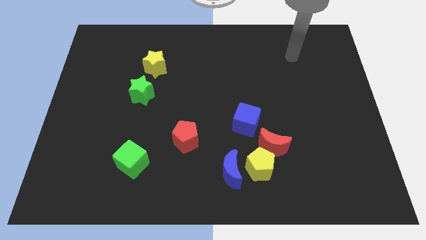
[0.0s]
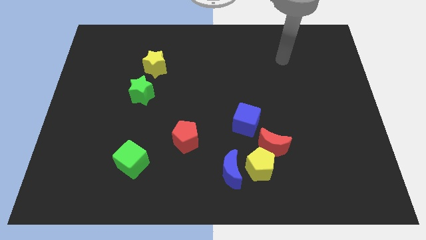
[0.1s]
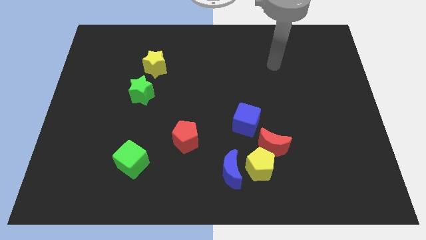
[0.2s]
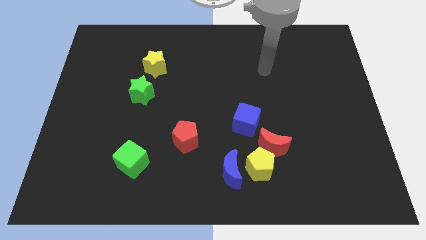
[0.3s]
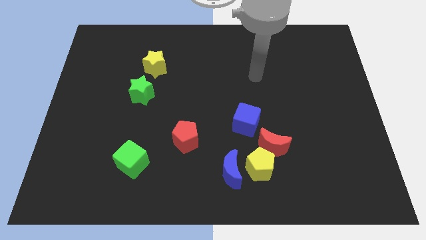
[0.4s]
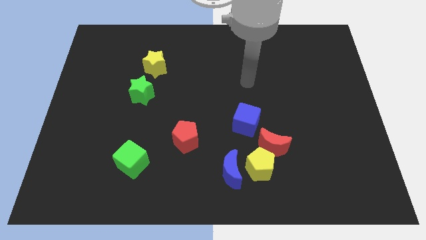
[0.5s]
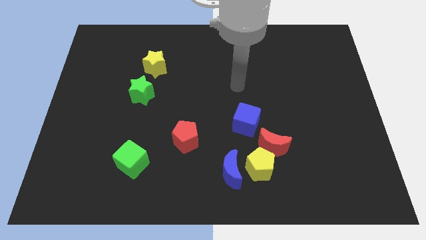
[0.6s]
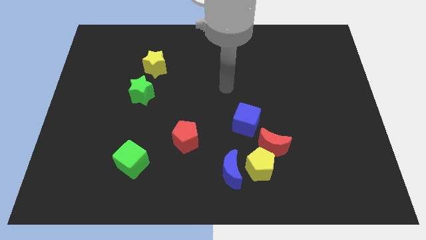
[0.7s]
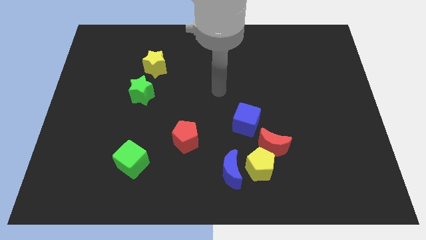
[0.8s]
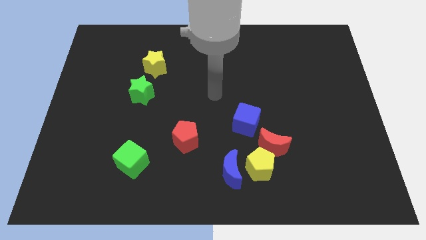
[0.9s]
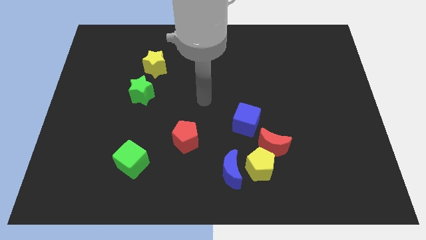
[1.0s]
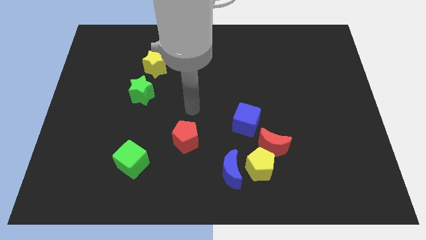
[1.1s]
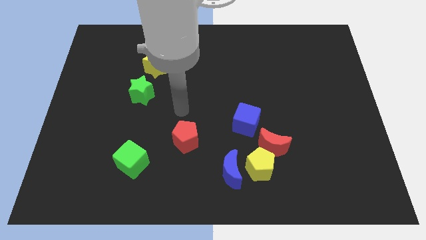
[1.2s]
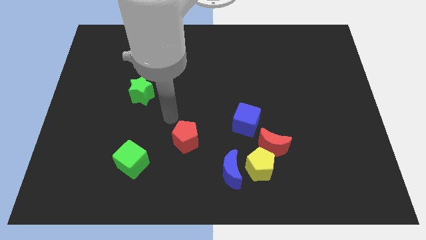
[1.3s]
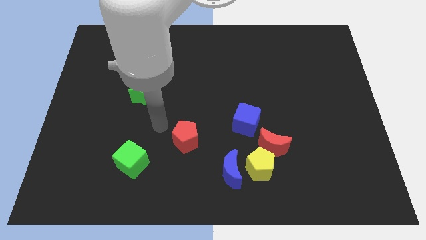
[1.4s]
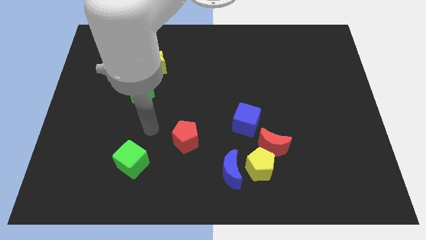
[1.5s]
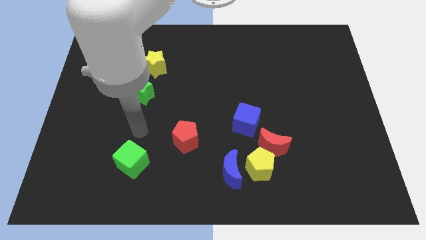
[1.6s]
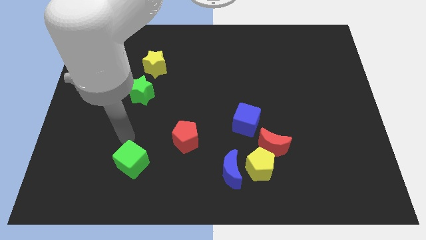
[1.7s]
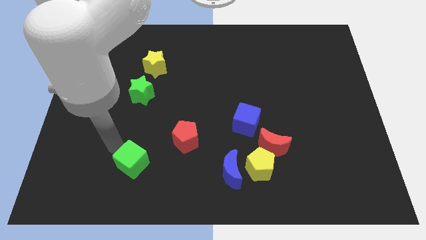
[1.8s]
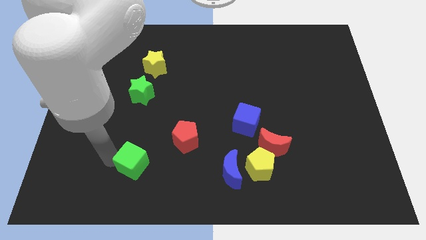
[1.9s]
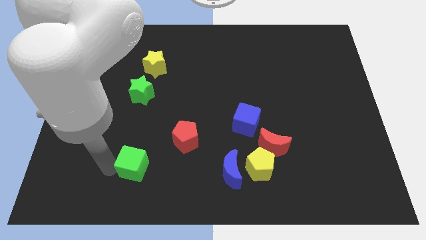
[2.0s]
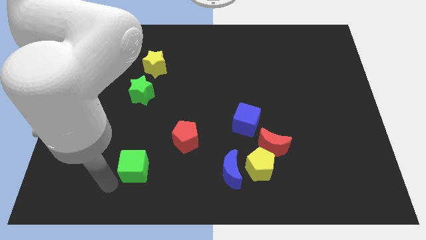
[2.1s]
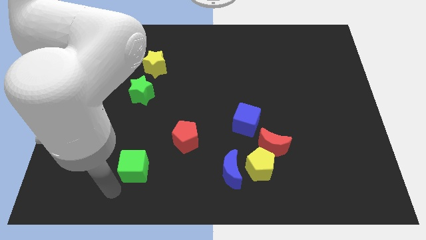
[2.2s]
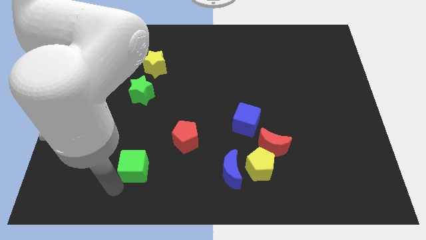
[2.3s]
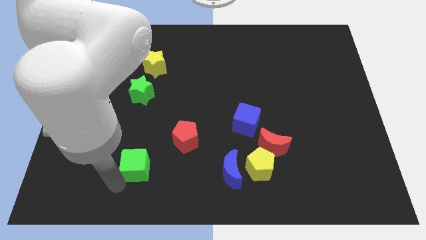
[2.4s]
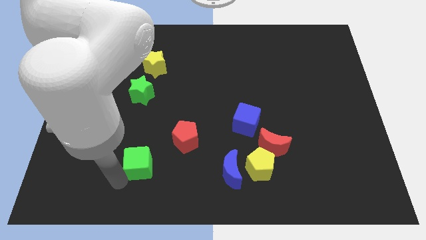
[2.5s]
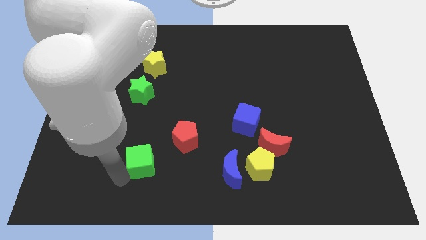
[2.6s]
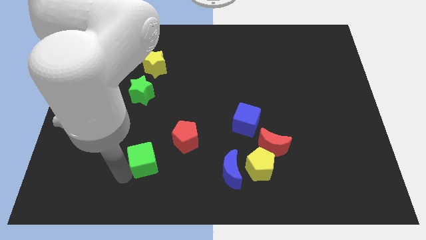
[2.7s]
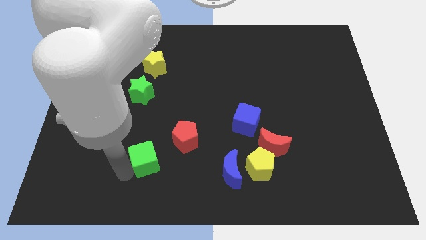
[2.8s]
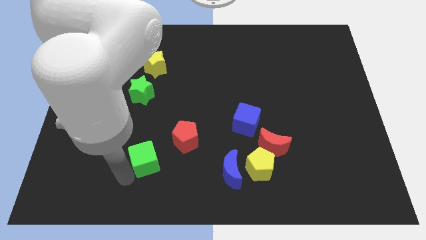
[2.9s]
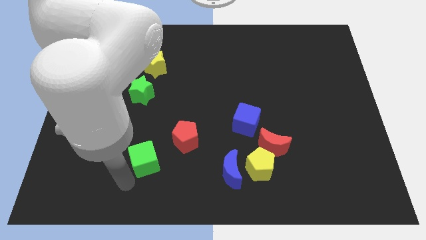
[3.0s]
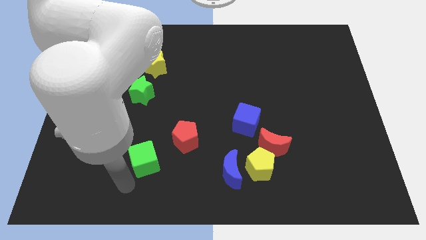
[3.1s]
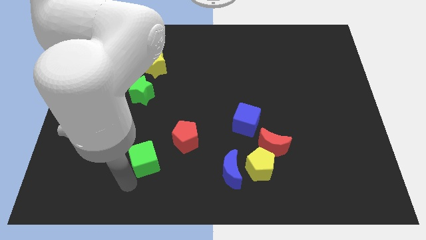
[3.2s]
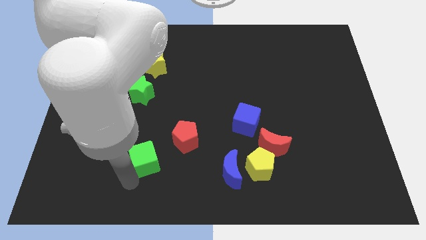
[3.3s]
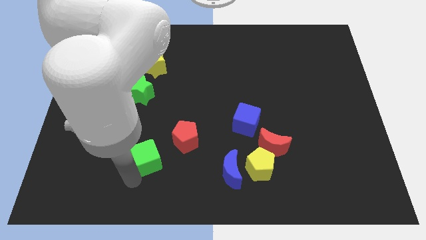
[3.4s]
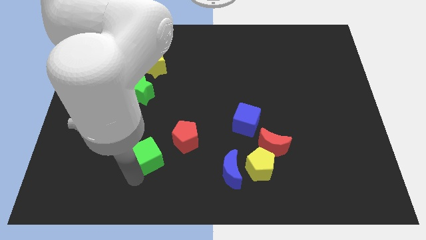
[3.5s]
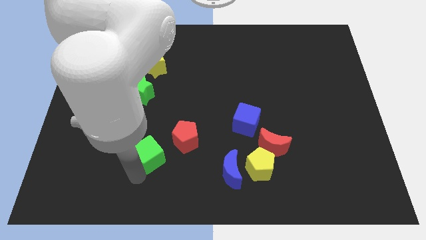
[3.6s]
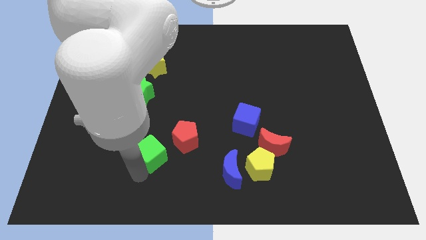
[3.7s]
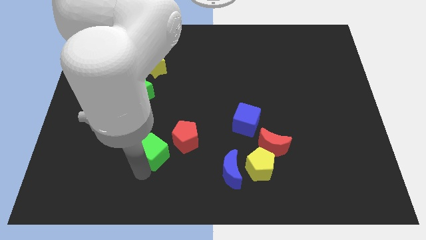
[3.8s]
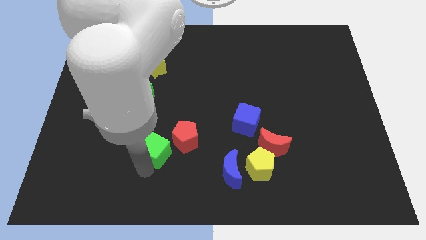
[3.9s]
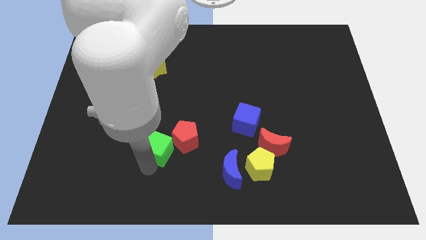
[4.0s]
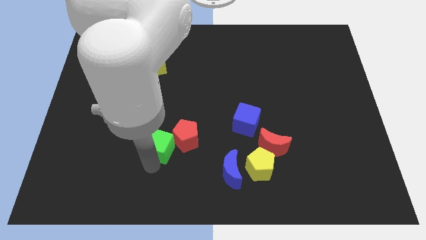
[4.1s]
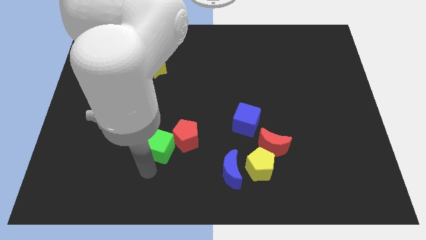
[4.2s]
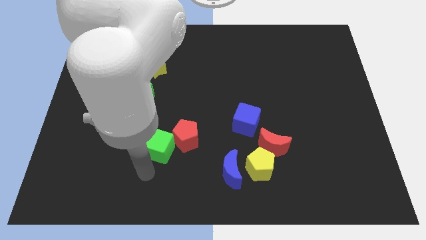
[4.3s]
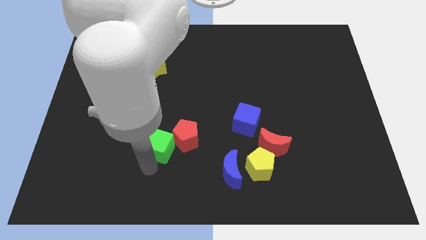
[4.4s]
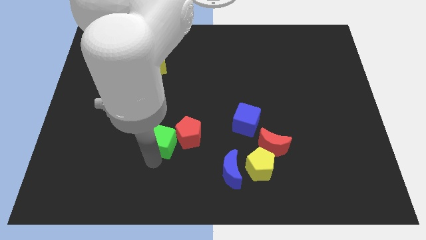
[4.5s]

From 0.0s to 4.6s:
slide the green cube somewhat diagonally upwards and to the right

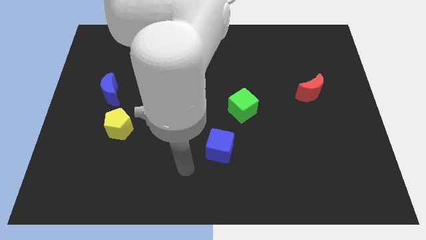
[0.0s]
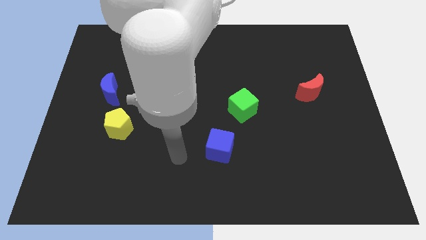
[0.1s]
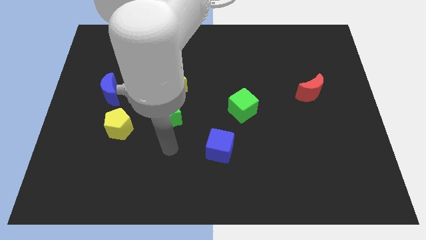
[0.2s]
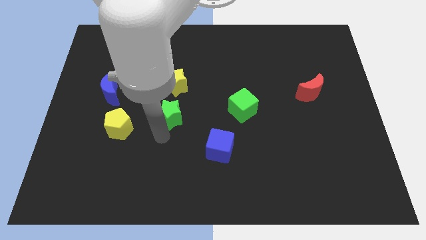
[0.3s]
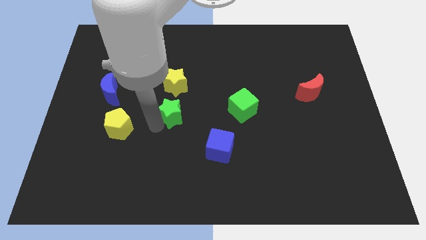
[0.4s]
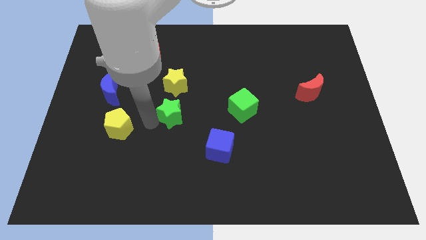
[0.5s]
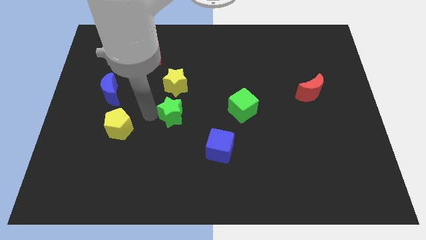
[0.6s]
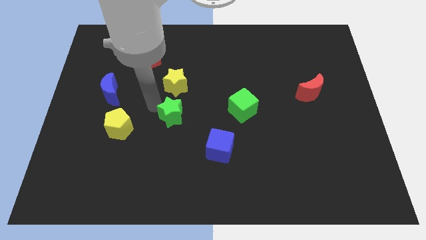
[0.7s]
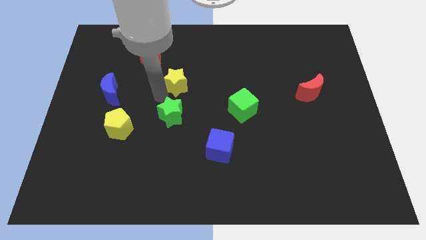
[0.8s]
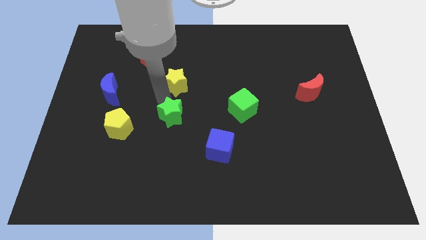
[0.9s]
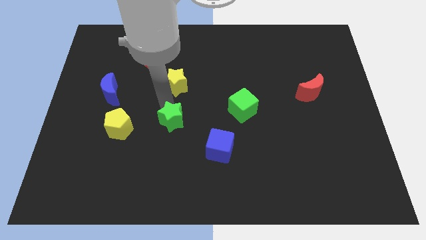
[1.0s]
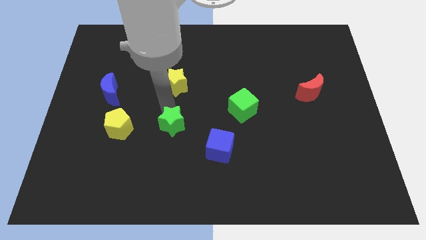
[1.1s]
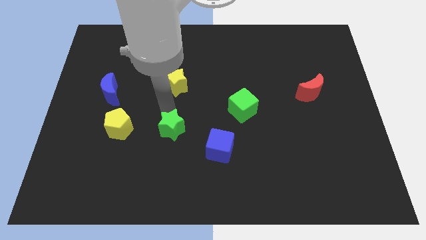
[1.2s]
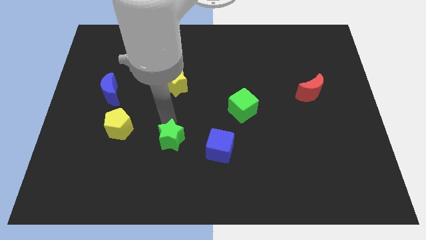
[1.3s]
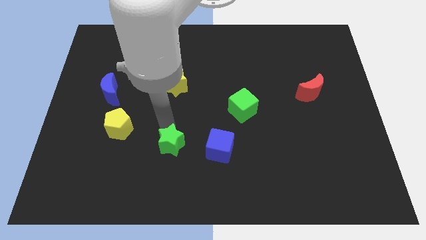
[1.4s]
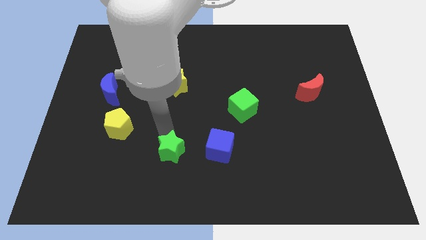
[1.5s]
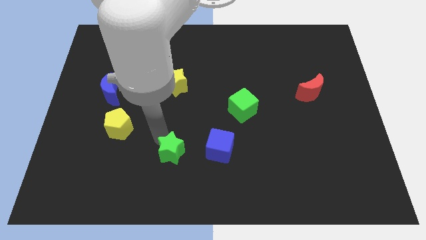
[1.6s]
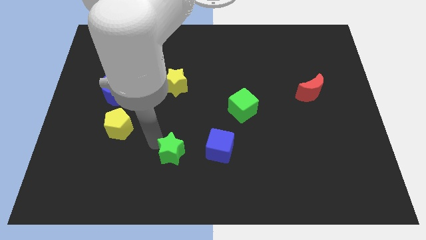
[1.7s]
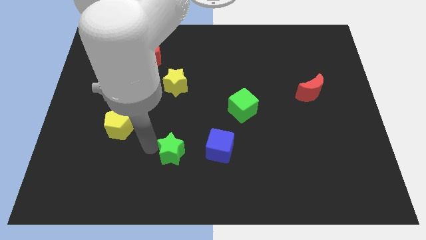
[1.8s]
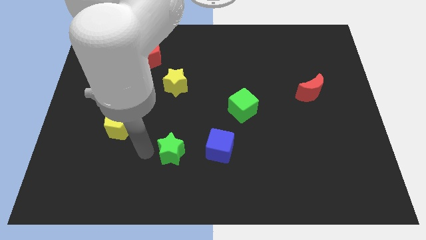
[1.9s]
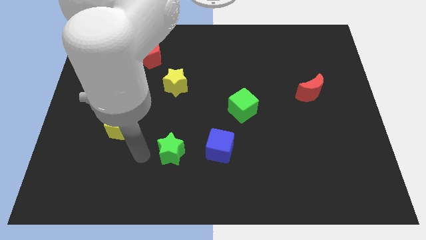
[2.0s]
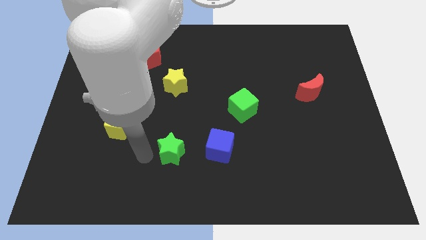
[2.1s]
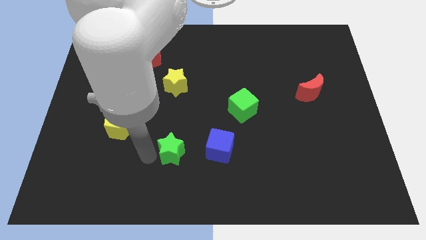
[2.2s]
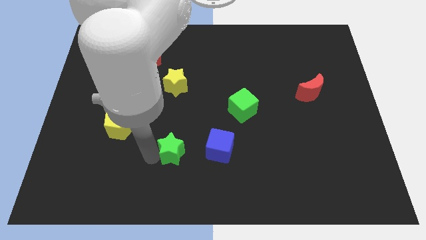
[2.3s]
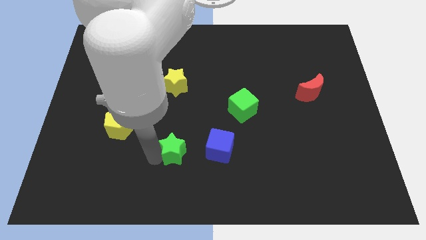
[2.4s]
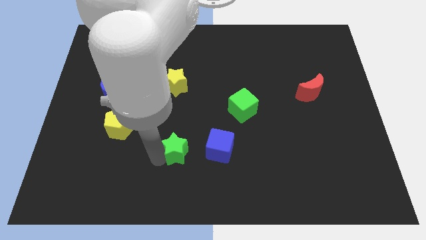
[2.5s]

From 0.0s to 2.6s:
slightly move the green star downwards and then right

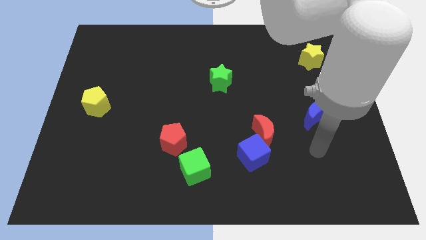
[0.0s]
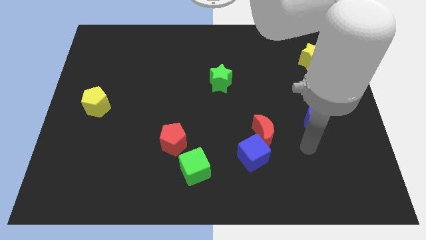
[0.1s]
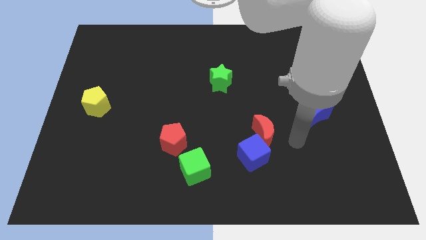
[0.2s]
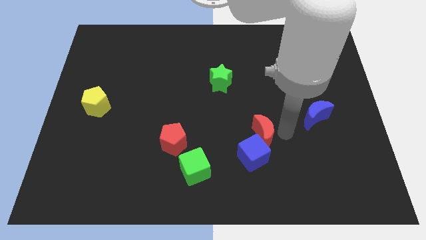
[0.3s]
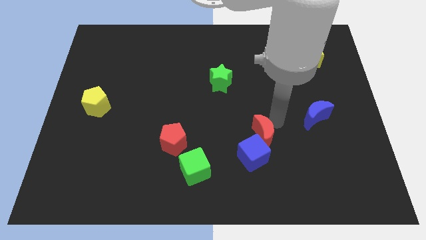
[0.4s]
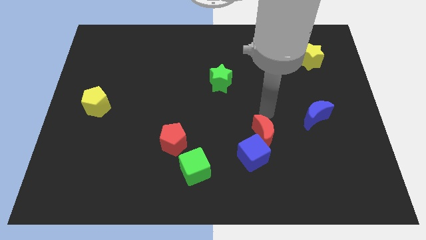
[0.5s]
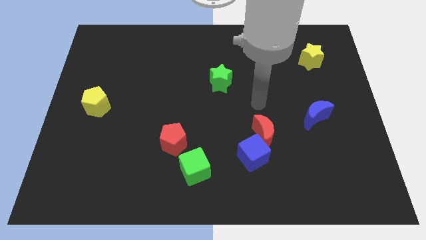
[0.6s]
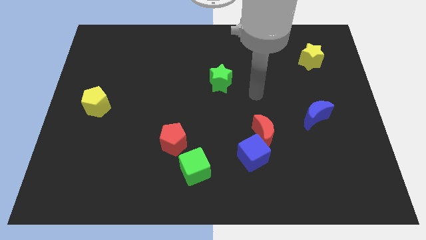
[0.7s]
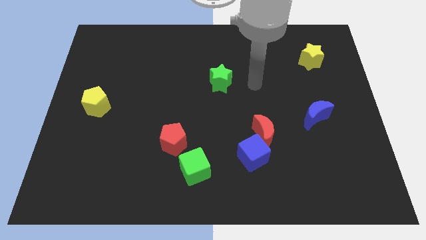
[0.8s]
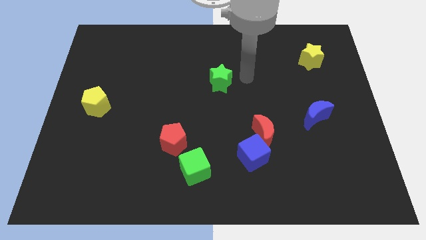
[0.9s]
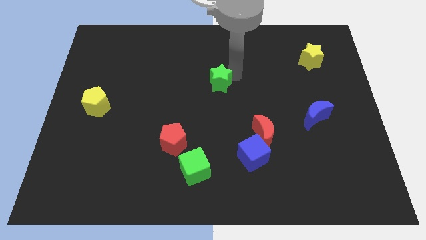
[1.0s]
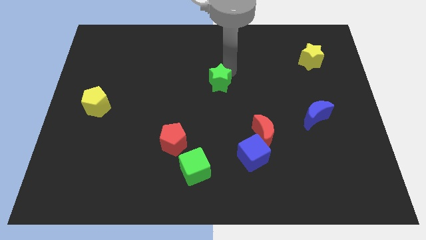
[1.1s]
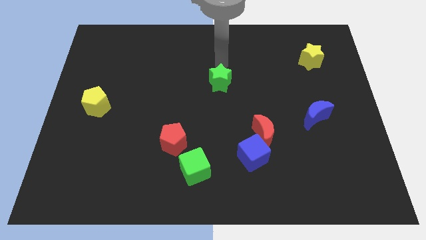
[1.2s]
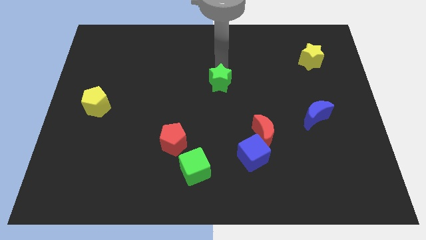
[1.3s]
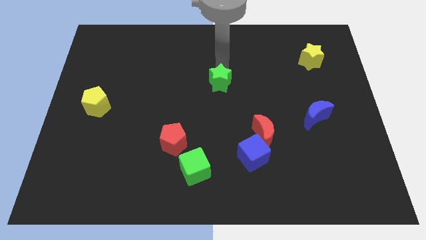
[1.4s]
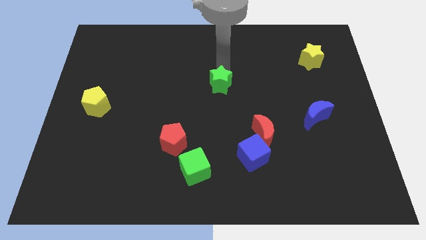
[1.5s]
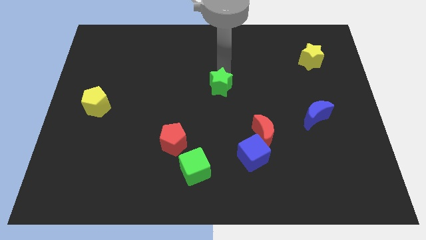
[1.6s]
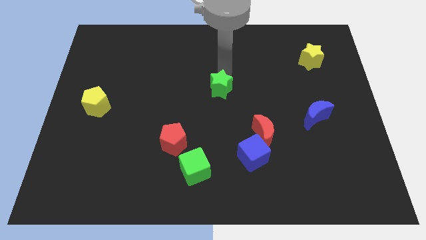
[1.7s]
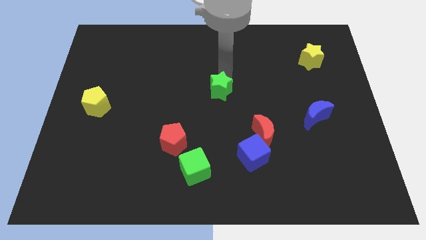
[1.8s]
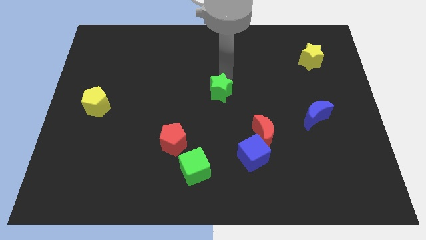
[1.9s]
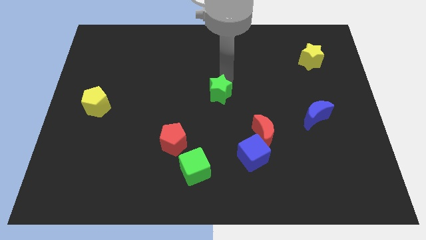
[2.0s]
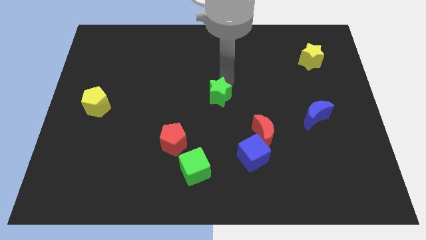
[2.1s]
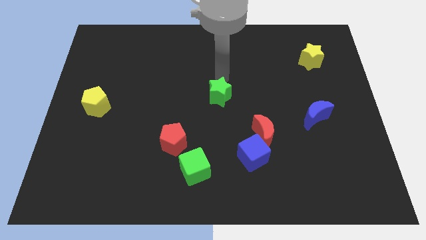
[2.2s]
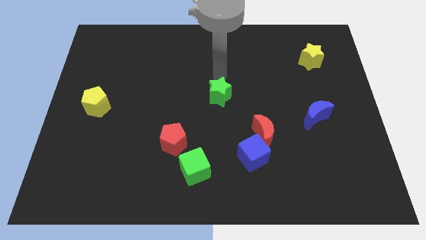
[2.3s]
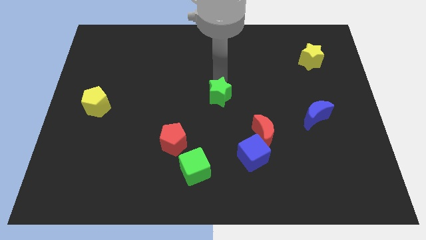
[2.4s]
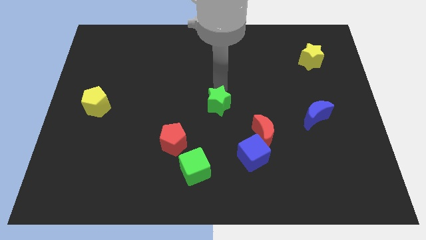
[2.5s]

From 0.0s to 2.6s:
slightly push the green star downwards
